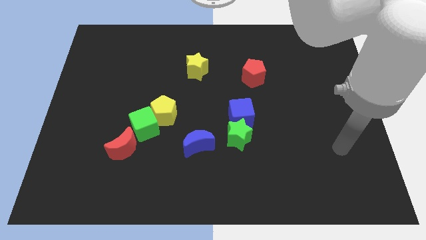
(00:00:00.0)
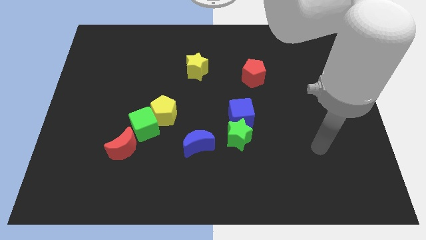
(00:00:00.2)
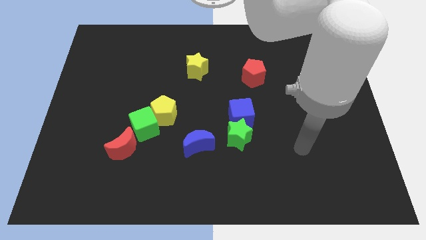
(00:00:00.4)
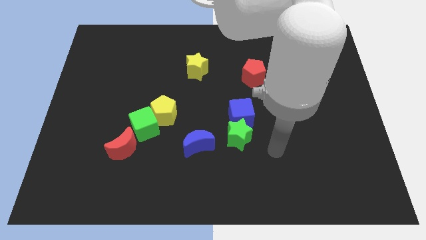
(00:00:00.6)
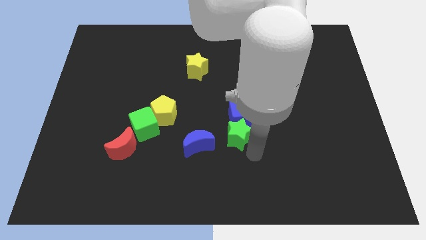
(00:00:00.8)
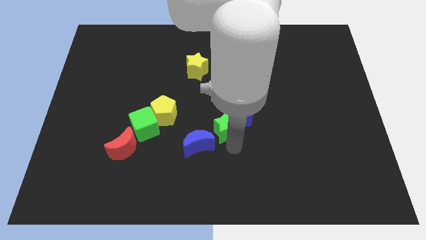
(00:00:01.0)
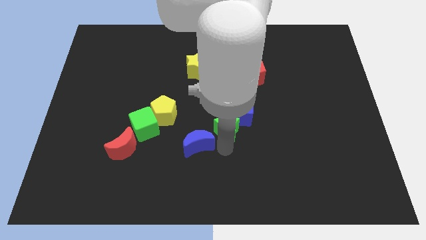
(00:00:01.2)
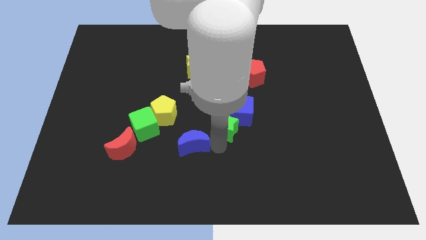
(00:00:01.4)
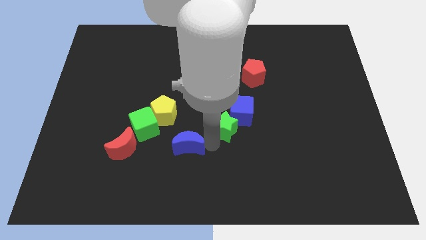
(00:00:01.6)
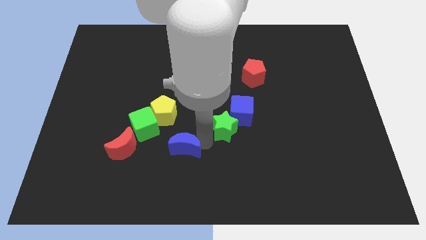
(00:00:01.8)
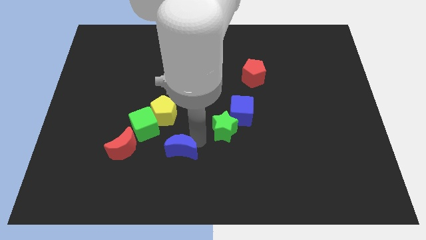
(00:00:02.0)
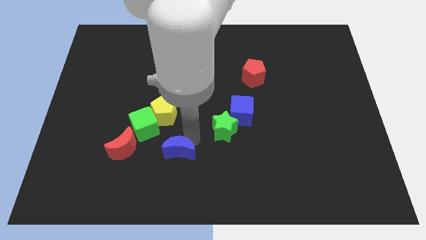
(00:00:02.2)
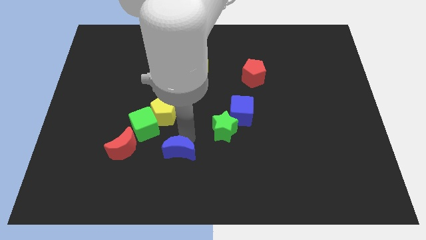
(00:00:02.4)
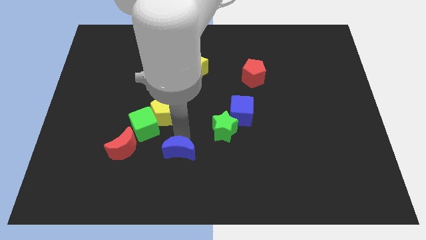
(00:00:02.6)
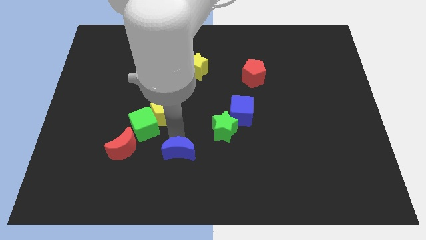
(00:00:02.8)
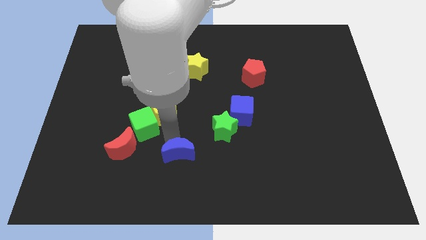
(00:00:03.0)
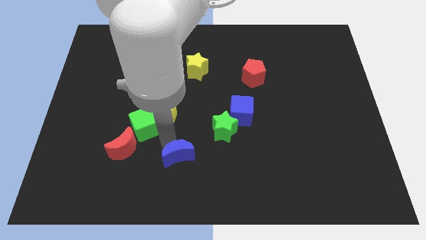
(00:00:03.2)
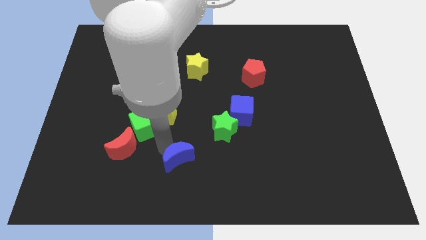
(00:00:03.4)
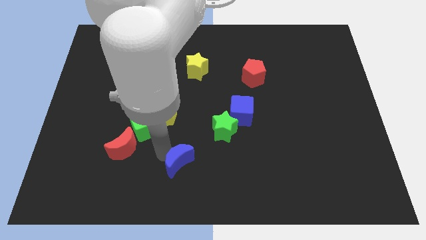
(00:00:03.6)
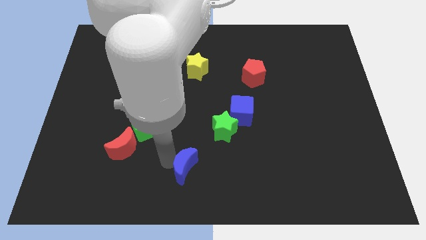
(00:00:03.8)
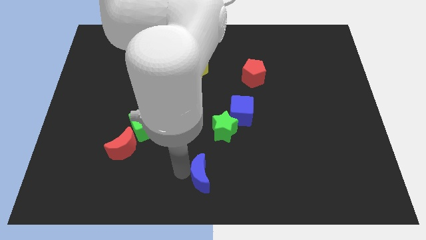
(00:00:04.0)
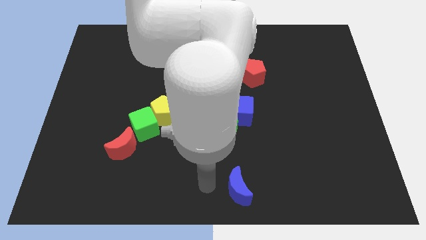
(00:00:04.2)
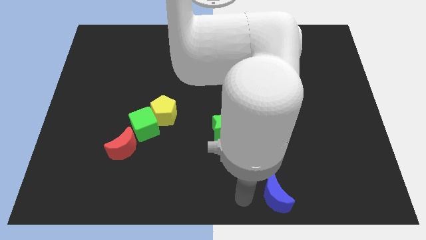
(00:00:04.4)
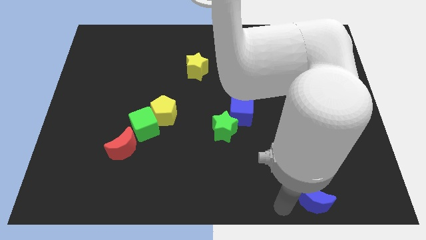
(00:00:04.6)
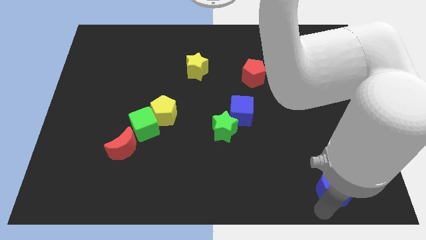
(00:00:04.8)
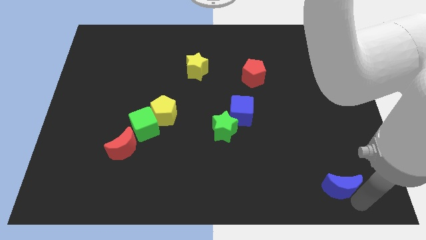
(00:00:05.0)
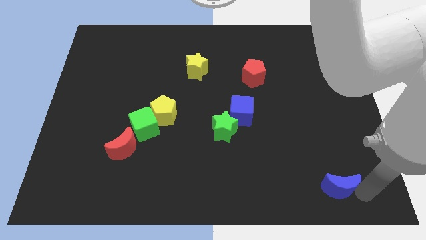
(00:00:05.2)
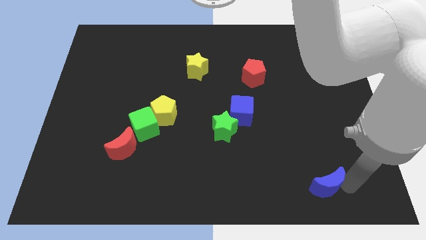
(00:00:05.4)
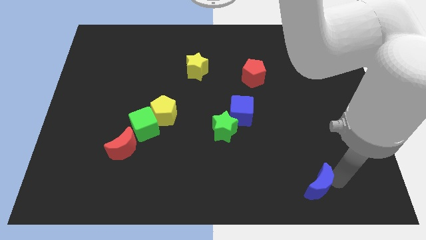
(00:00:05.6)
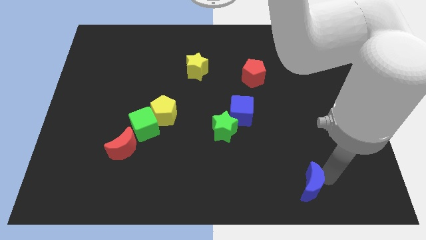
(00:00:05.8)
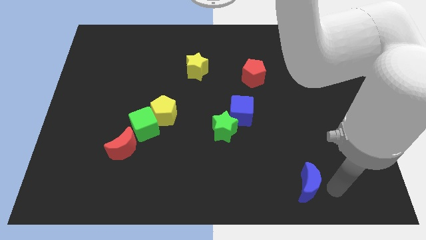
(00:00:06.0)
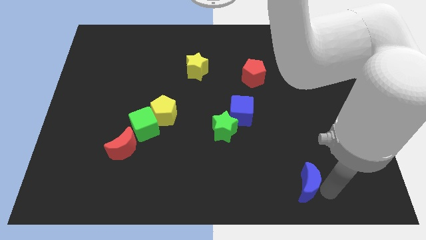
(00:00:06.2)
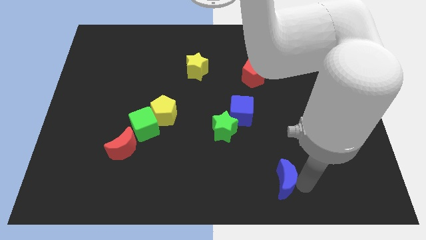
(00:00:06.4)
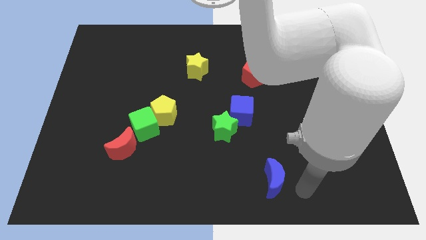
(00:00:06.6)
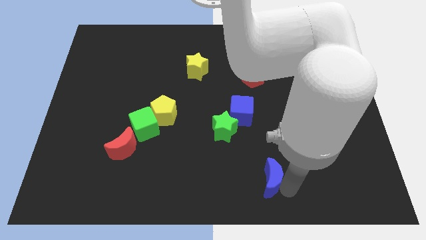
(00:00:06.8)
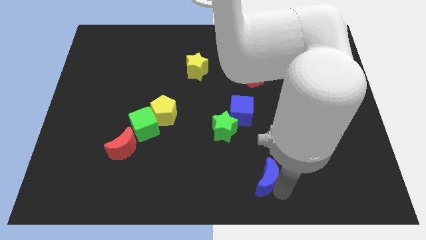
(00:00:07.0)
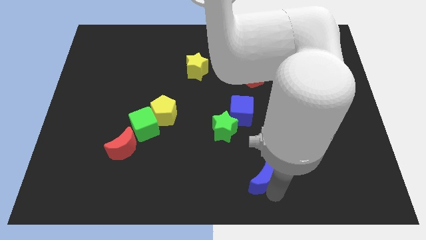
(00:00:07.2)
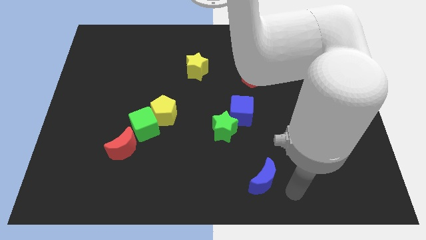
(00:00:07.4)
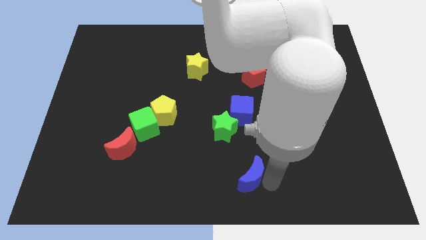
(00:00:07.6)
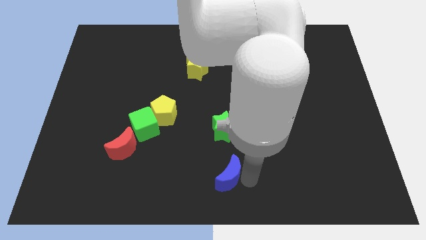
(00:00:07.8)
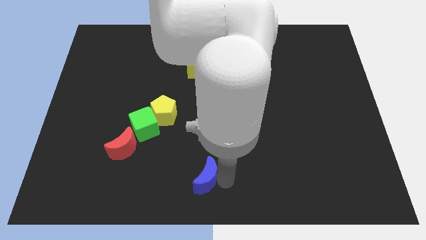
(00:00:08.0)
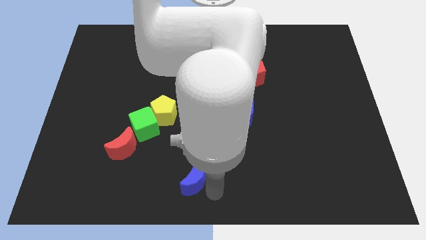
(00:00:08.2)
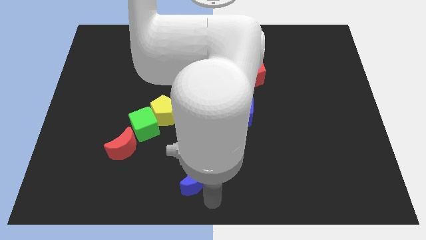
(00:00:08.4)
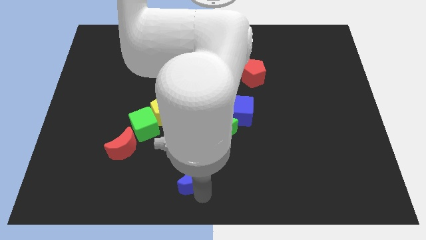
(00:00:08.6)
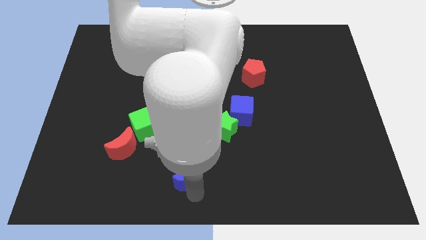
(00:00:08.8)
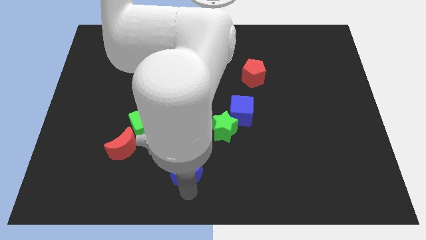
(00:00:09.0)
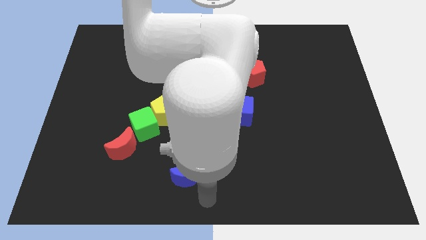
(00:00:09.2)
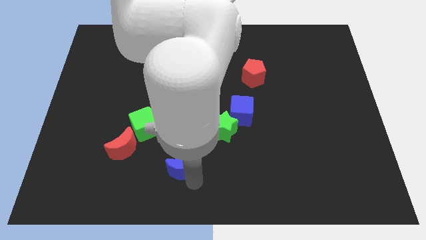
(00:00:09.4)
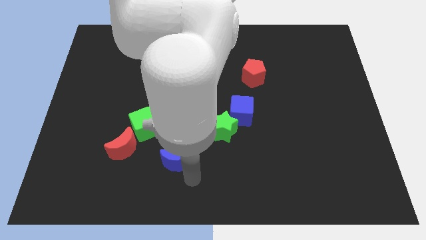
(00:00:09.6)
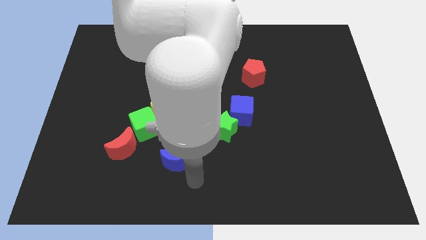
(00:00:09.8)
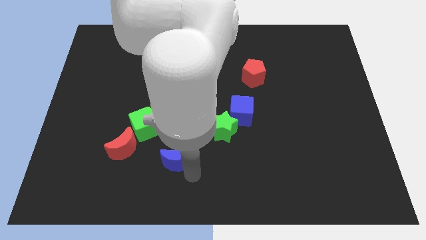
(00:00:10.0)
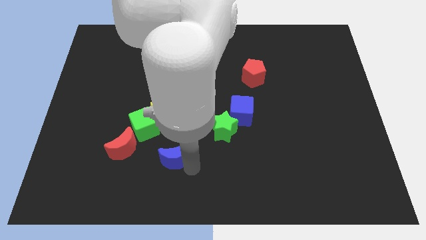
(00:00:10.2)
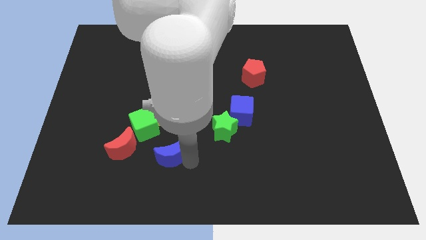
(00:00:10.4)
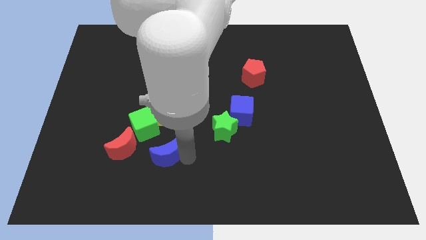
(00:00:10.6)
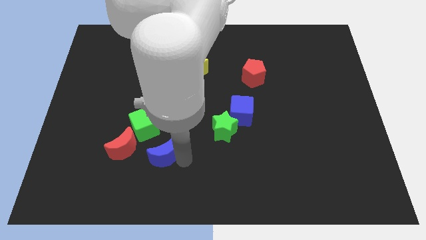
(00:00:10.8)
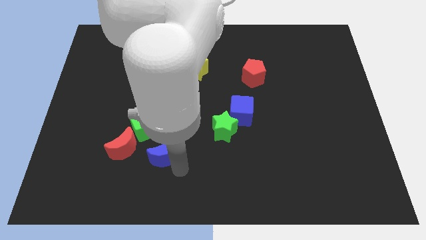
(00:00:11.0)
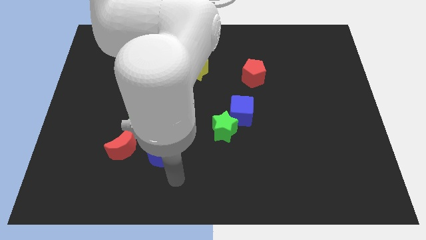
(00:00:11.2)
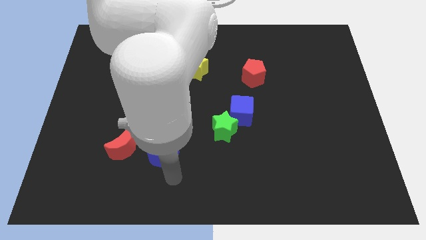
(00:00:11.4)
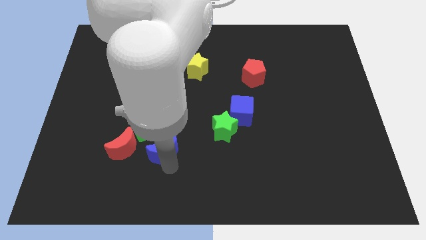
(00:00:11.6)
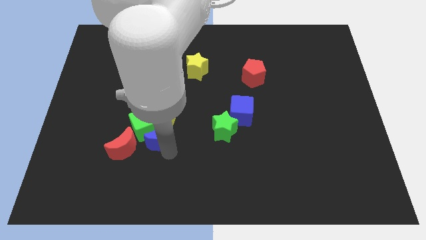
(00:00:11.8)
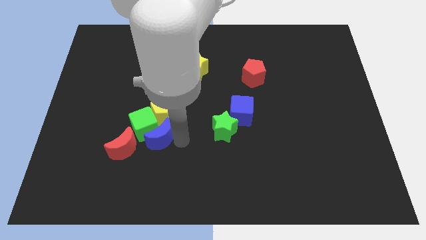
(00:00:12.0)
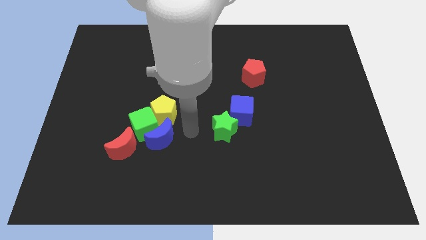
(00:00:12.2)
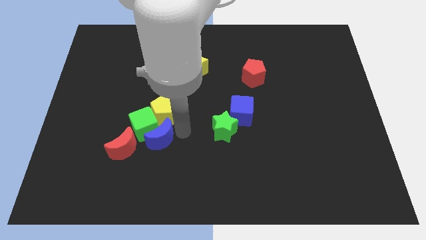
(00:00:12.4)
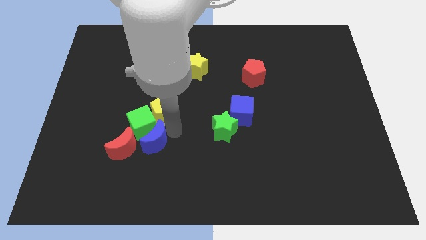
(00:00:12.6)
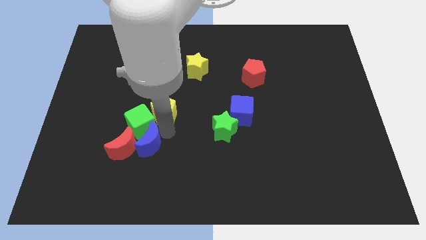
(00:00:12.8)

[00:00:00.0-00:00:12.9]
move the blue moon towards the red moon
